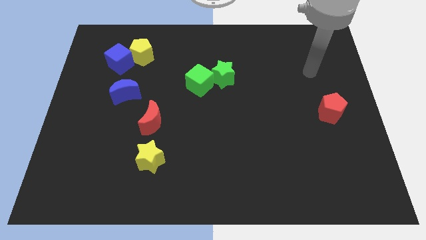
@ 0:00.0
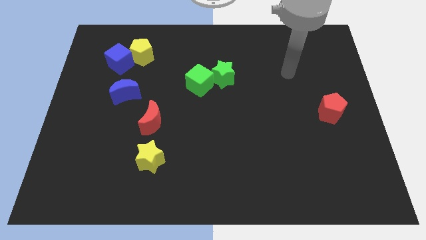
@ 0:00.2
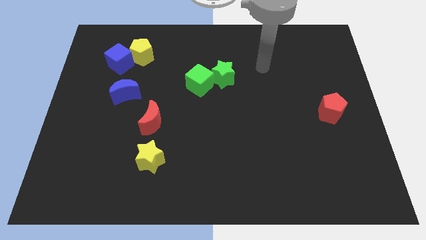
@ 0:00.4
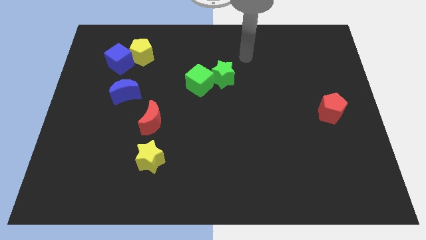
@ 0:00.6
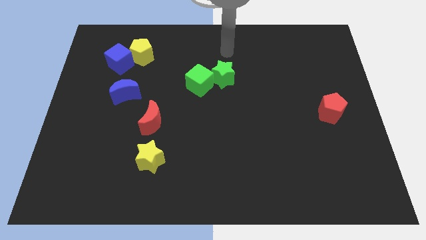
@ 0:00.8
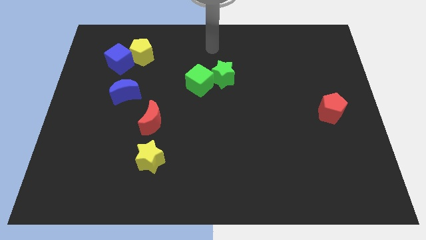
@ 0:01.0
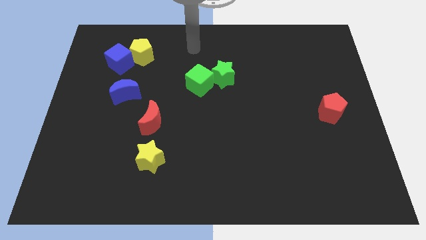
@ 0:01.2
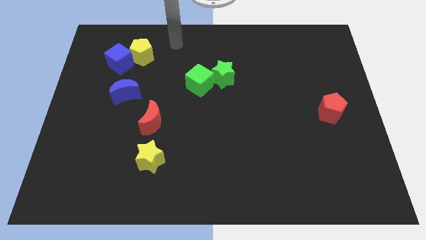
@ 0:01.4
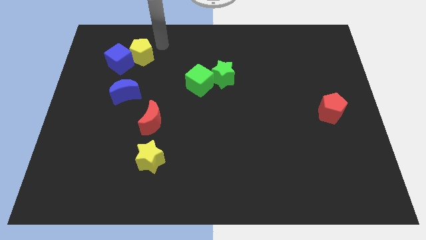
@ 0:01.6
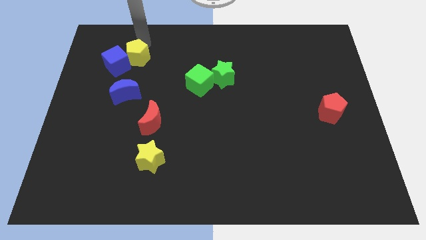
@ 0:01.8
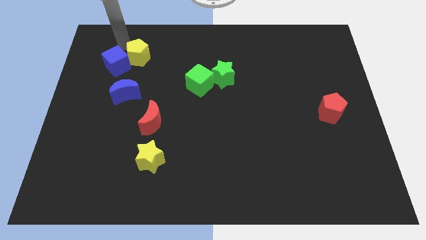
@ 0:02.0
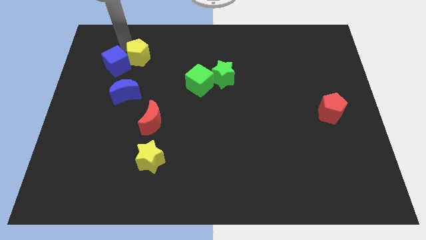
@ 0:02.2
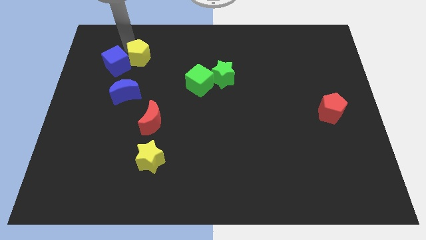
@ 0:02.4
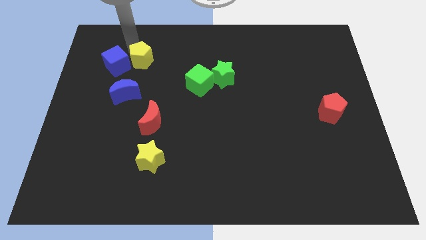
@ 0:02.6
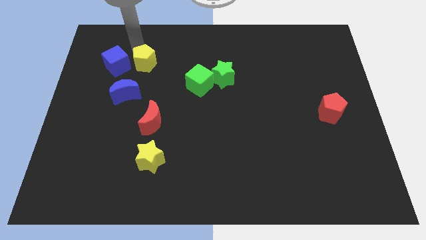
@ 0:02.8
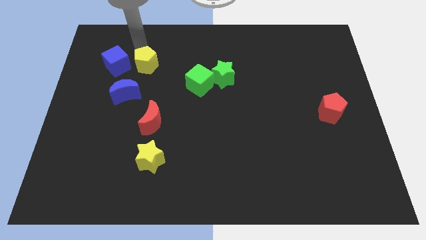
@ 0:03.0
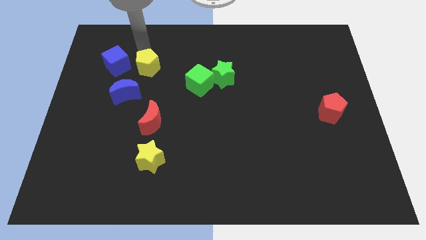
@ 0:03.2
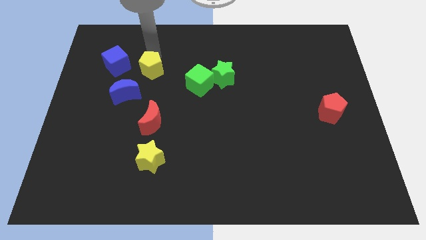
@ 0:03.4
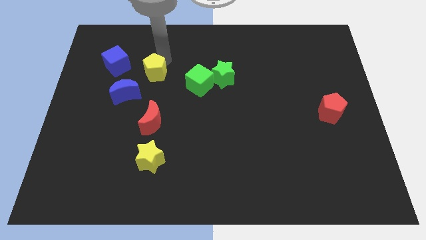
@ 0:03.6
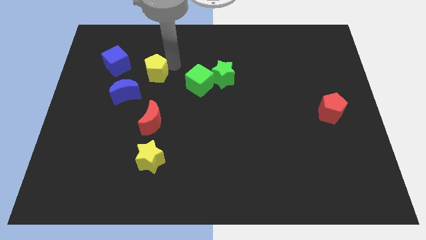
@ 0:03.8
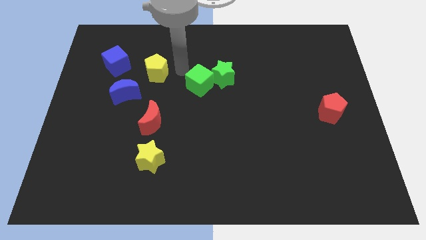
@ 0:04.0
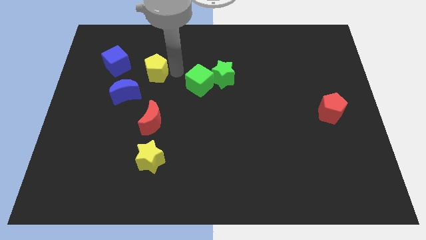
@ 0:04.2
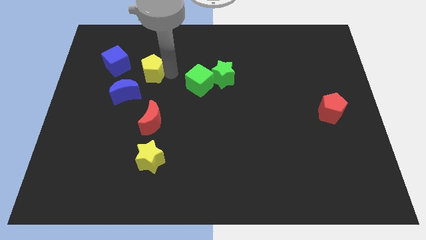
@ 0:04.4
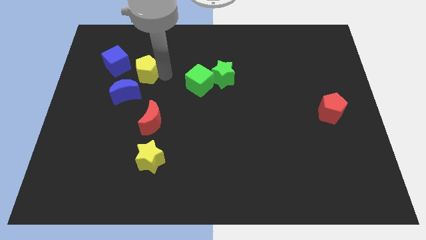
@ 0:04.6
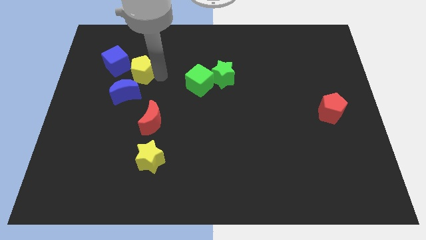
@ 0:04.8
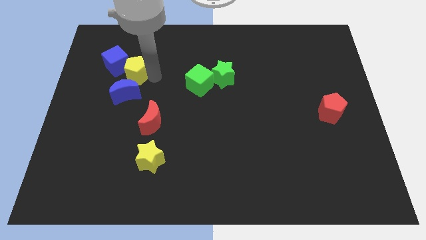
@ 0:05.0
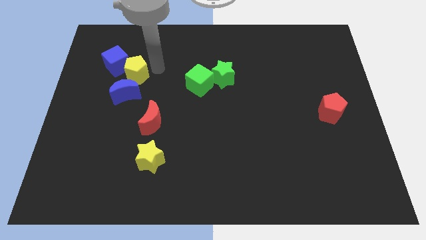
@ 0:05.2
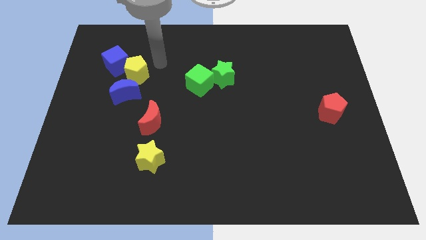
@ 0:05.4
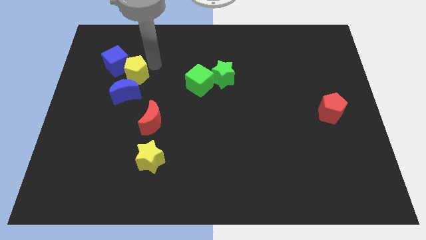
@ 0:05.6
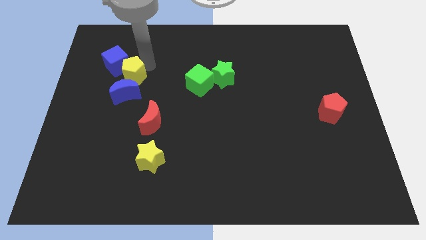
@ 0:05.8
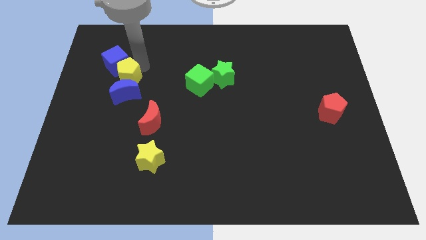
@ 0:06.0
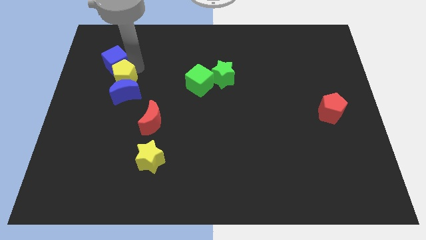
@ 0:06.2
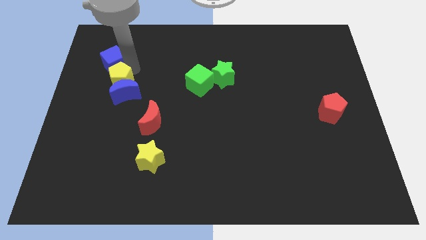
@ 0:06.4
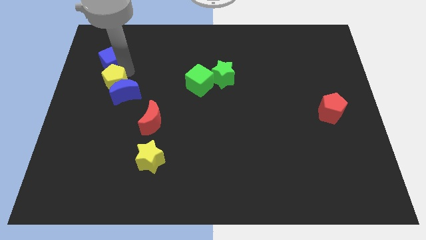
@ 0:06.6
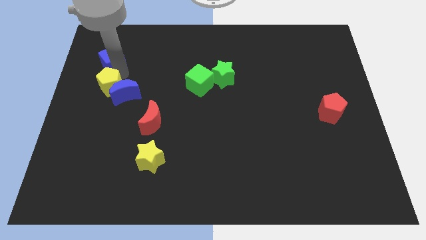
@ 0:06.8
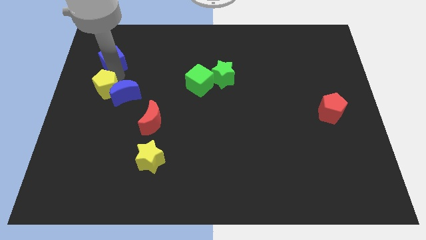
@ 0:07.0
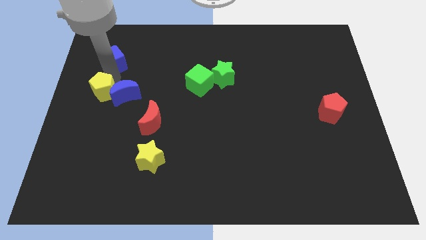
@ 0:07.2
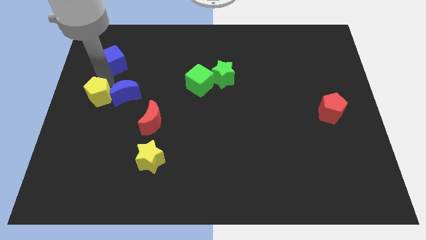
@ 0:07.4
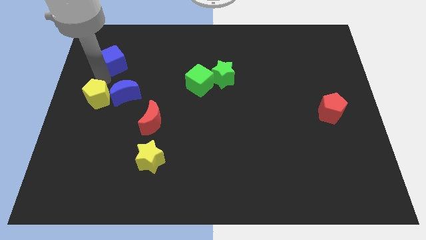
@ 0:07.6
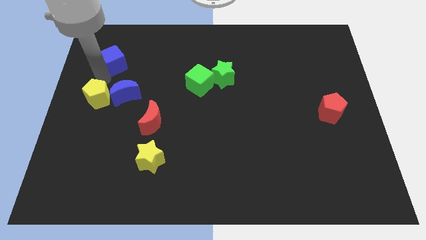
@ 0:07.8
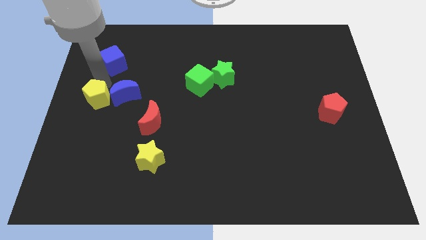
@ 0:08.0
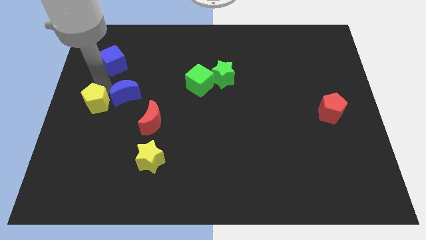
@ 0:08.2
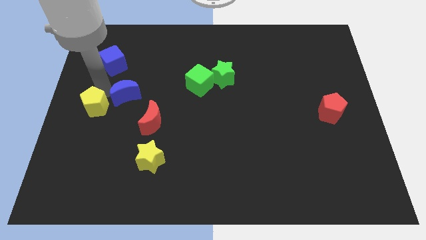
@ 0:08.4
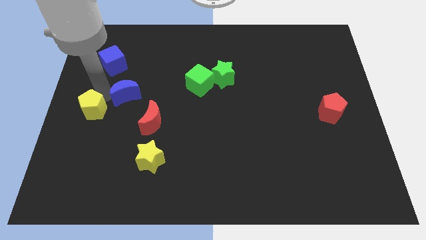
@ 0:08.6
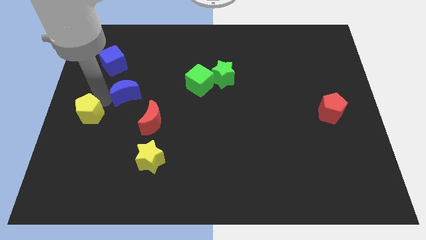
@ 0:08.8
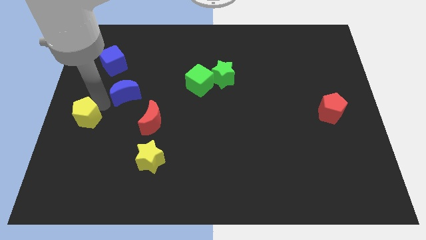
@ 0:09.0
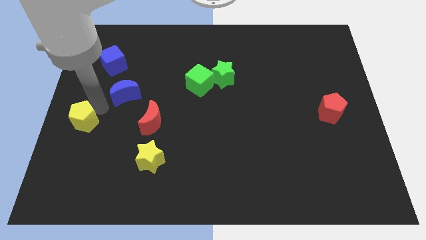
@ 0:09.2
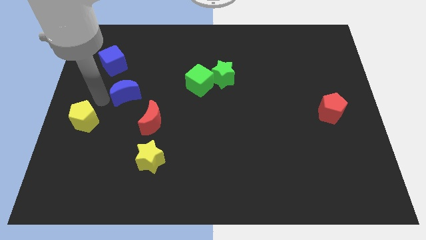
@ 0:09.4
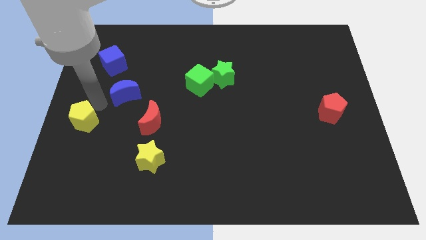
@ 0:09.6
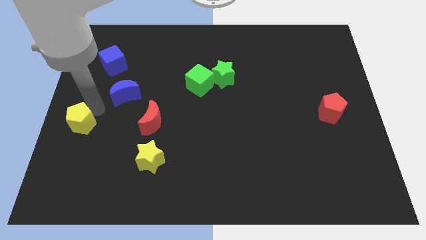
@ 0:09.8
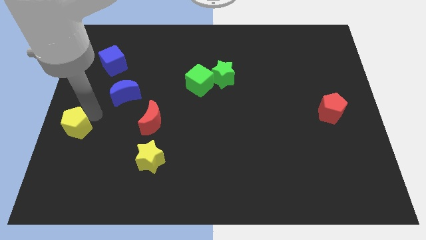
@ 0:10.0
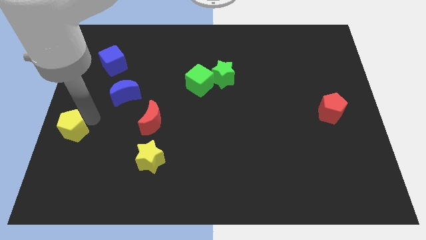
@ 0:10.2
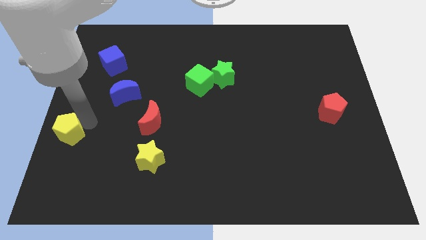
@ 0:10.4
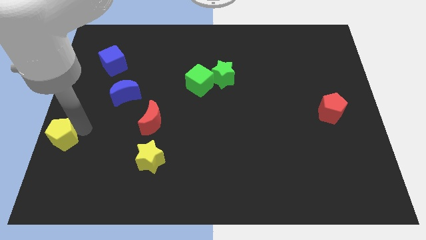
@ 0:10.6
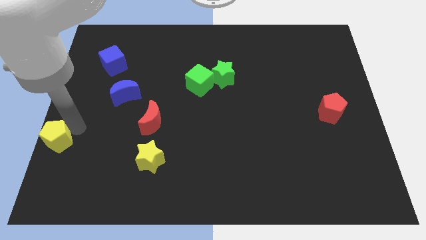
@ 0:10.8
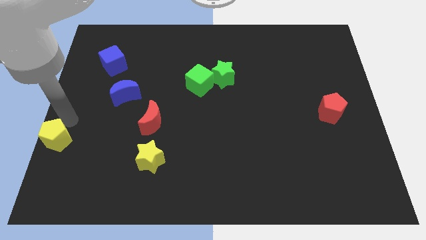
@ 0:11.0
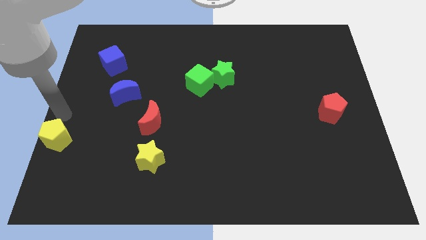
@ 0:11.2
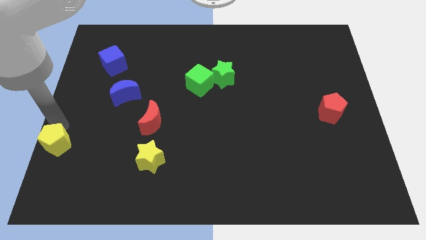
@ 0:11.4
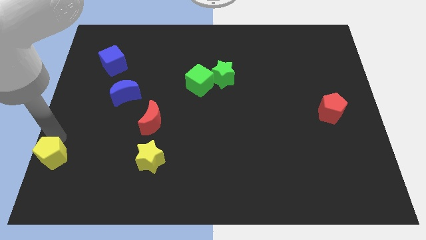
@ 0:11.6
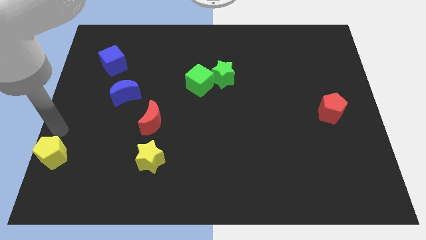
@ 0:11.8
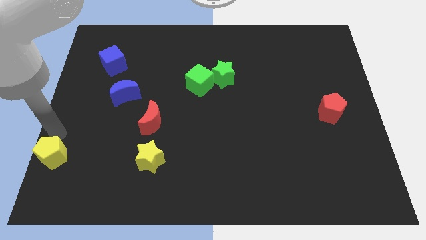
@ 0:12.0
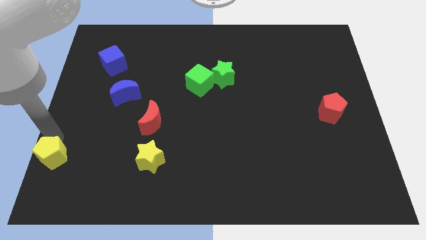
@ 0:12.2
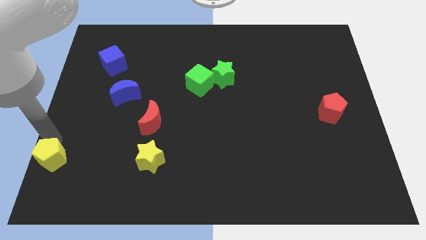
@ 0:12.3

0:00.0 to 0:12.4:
push the yellow pentagon to the bottom left corner

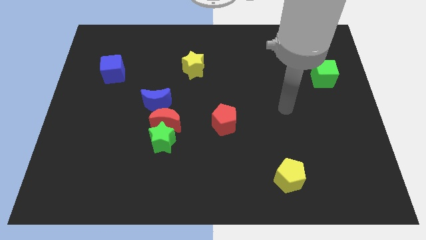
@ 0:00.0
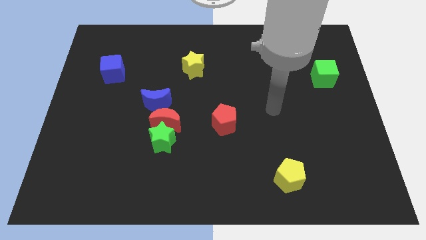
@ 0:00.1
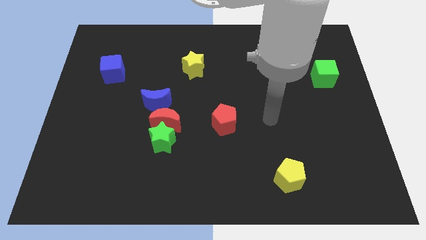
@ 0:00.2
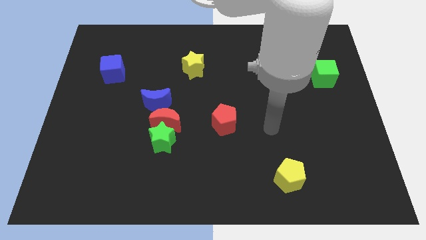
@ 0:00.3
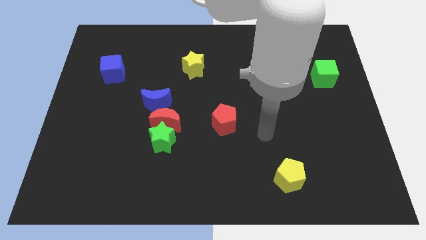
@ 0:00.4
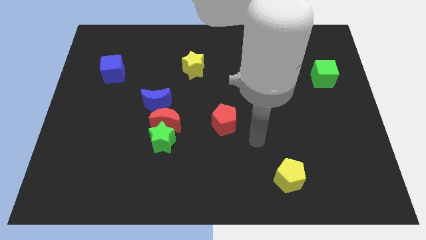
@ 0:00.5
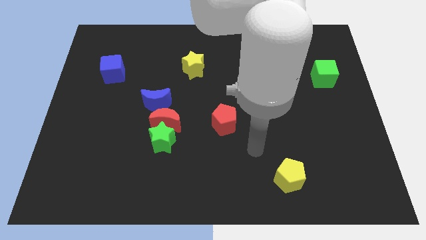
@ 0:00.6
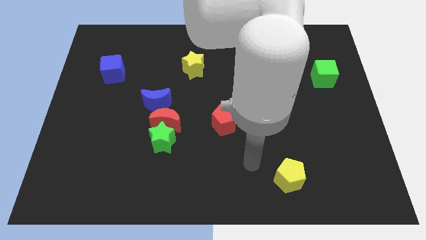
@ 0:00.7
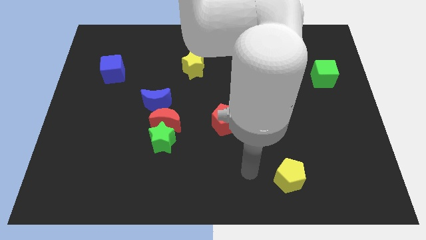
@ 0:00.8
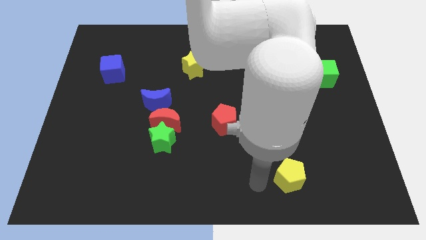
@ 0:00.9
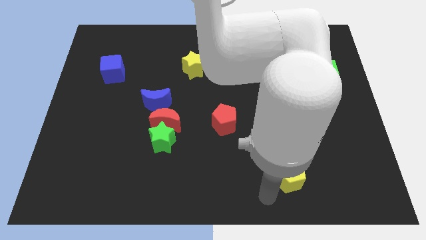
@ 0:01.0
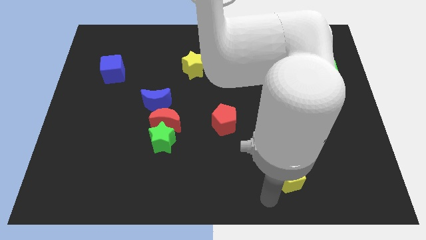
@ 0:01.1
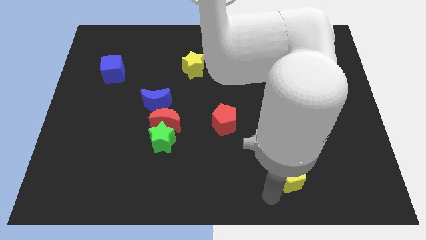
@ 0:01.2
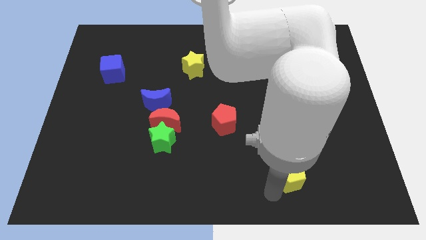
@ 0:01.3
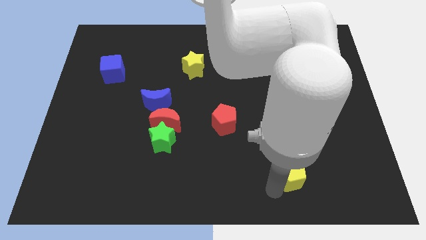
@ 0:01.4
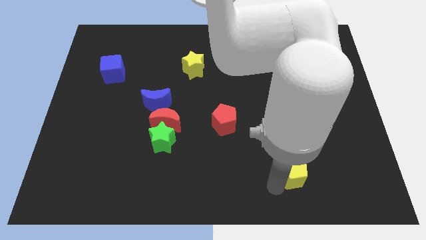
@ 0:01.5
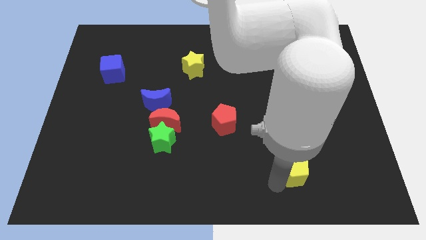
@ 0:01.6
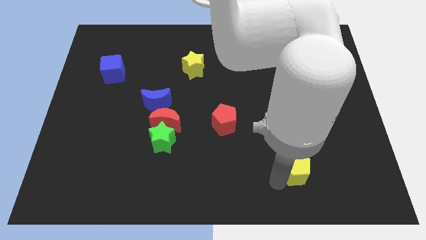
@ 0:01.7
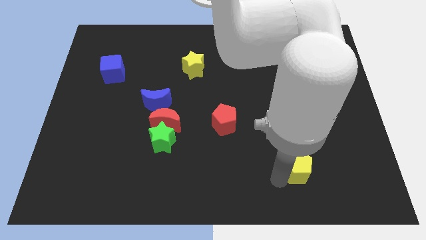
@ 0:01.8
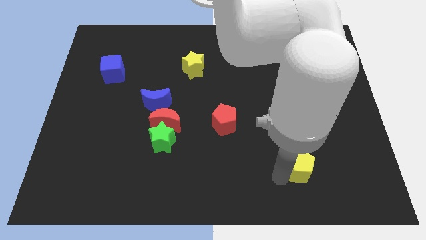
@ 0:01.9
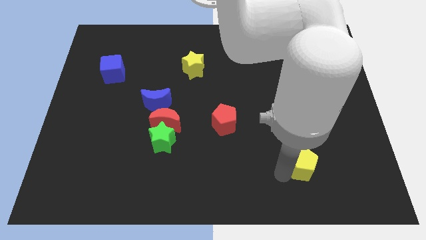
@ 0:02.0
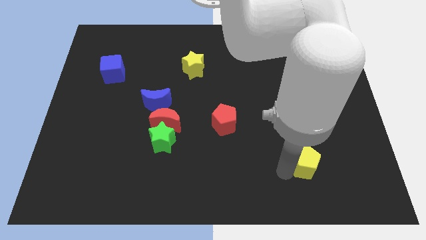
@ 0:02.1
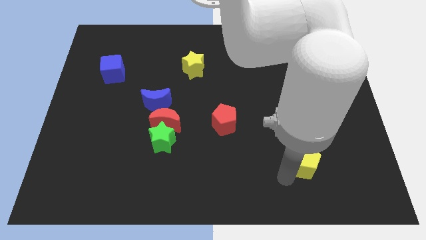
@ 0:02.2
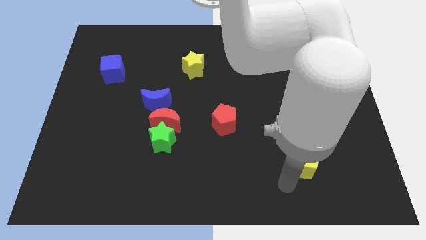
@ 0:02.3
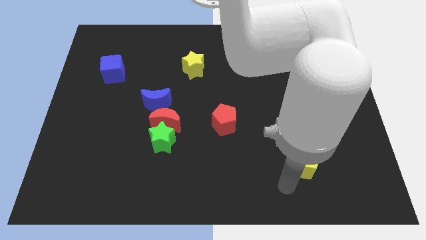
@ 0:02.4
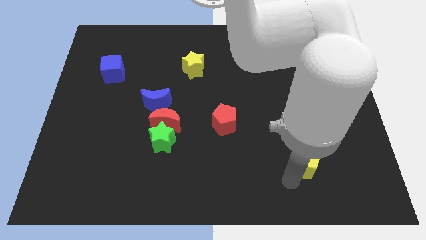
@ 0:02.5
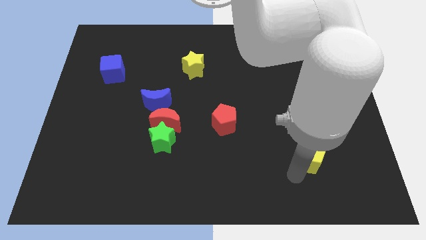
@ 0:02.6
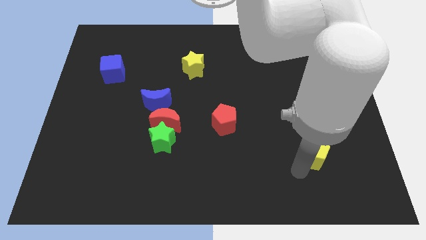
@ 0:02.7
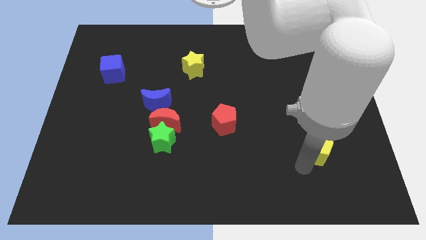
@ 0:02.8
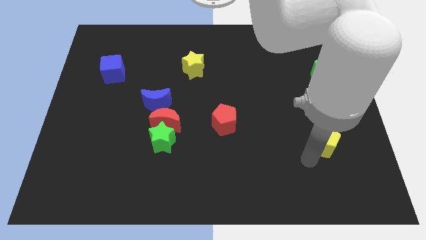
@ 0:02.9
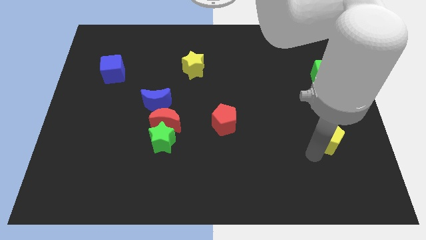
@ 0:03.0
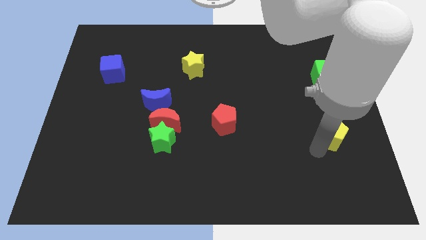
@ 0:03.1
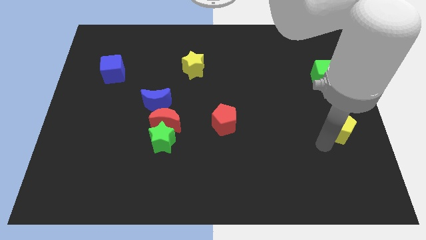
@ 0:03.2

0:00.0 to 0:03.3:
slide the yellow pentagon to the center right
